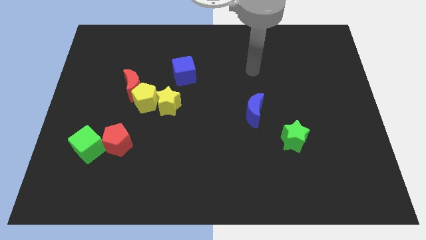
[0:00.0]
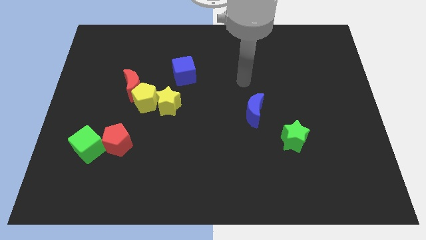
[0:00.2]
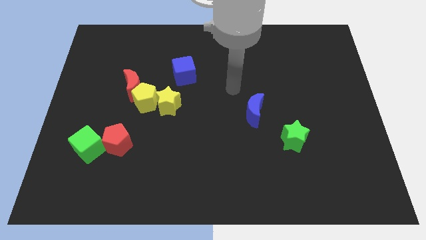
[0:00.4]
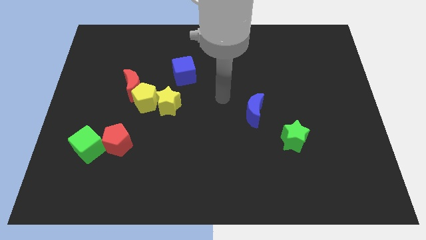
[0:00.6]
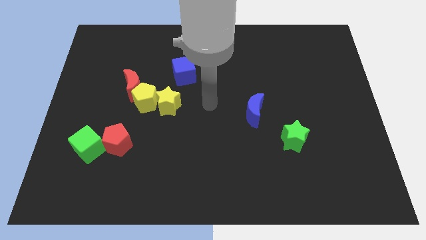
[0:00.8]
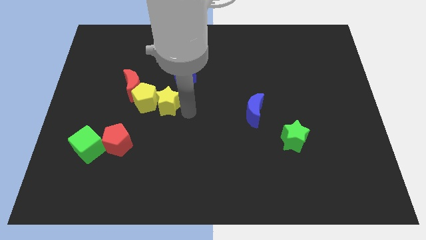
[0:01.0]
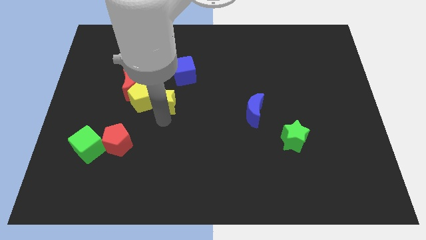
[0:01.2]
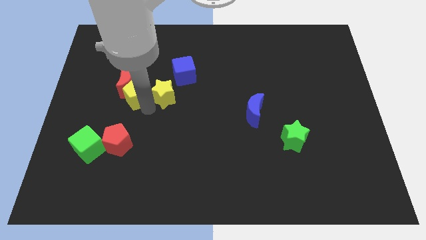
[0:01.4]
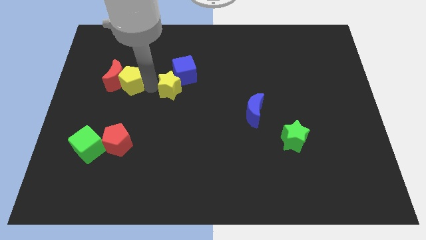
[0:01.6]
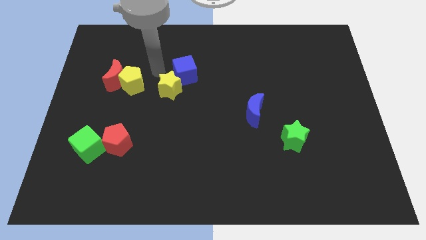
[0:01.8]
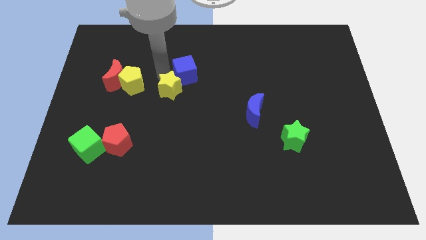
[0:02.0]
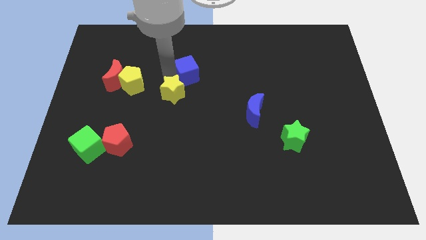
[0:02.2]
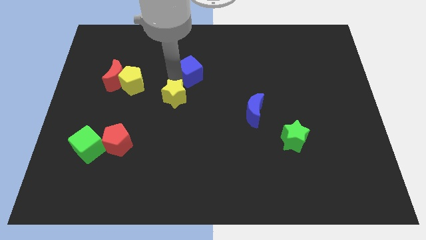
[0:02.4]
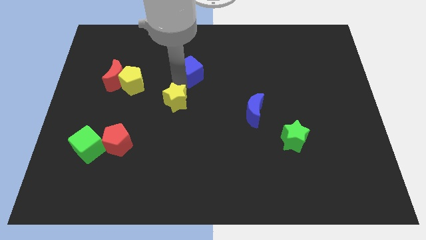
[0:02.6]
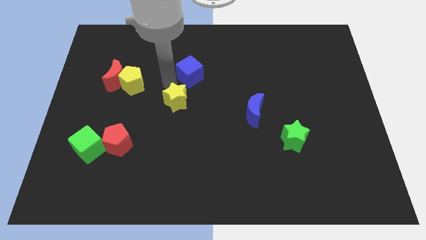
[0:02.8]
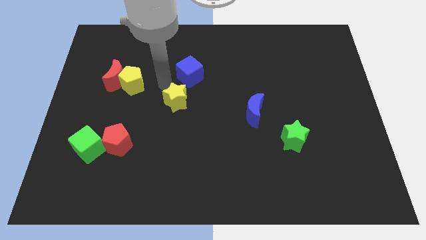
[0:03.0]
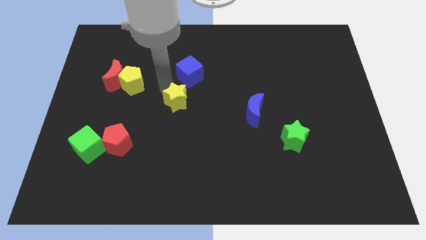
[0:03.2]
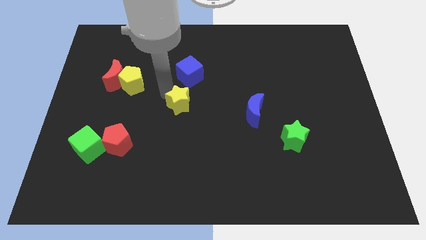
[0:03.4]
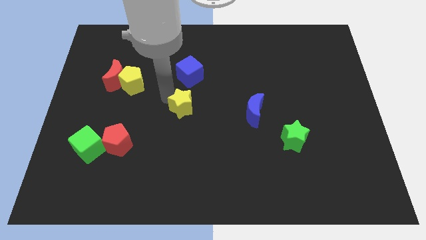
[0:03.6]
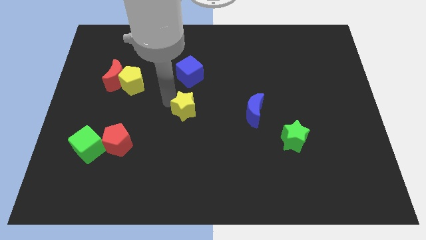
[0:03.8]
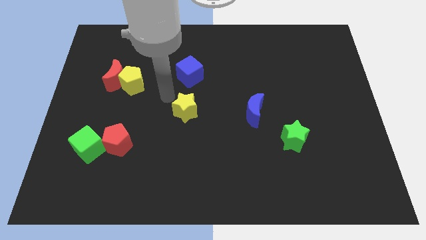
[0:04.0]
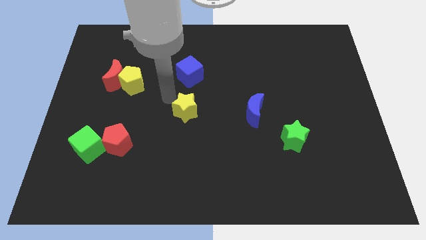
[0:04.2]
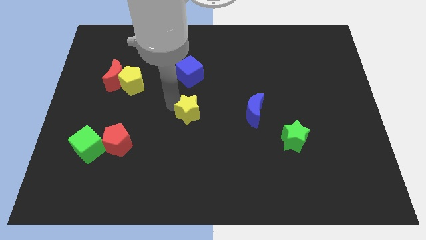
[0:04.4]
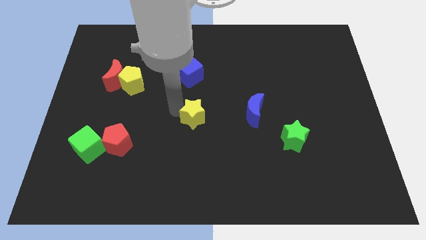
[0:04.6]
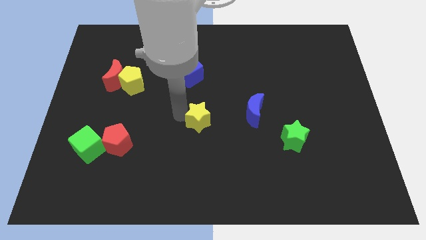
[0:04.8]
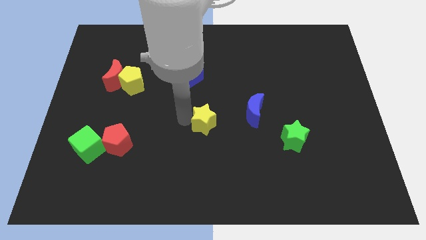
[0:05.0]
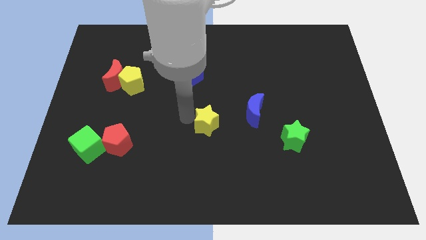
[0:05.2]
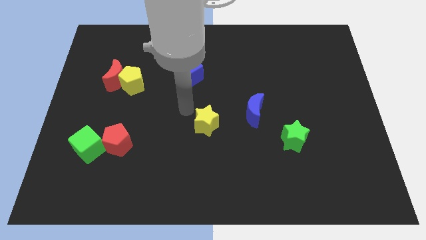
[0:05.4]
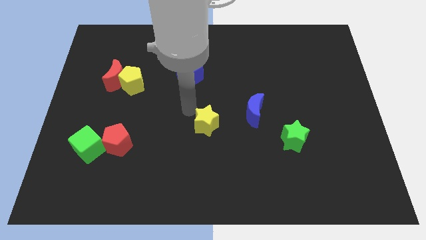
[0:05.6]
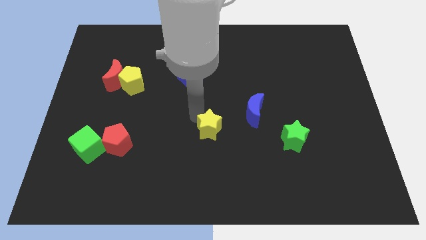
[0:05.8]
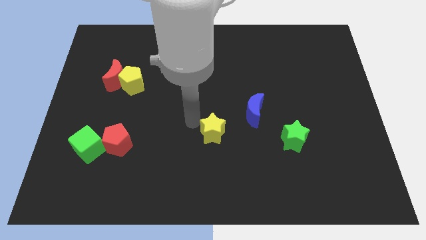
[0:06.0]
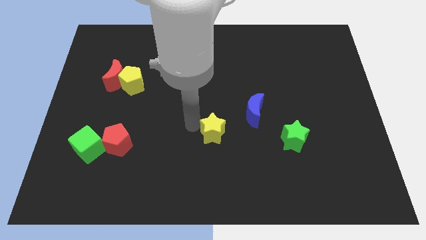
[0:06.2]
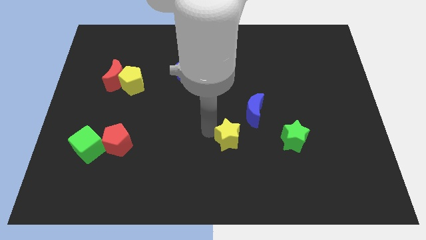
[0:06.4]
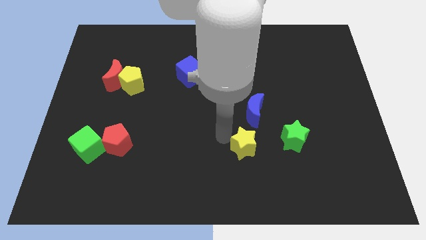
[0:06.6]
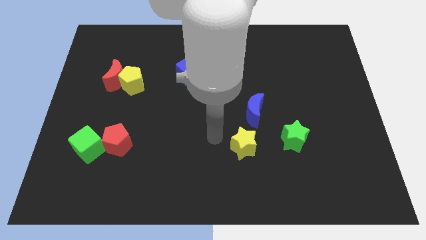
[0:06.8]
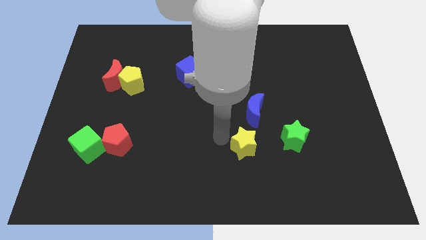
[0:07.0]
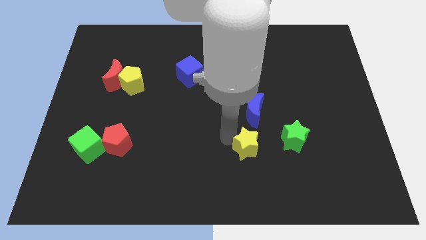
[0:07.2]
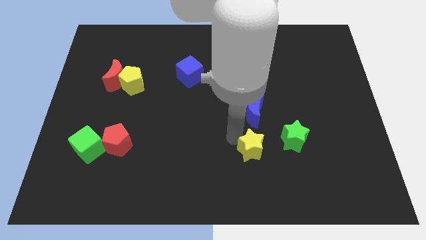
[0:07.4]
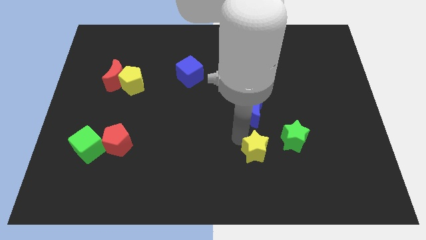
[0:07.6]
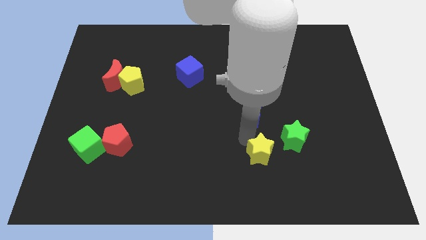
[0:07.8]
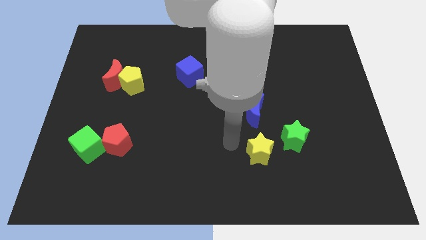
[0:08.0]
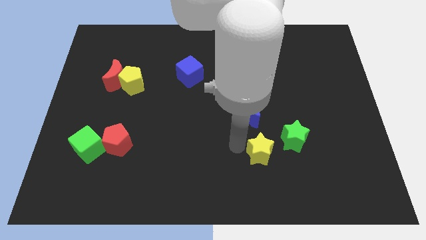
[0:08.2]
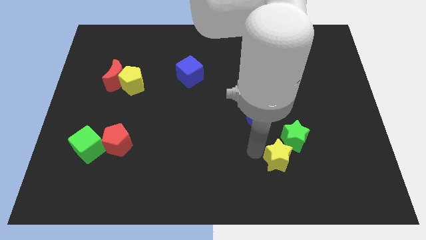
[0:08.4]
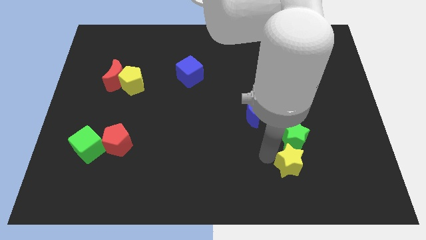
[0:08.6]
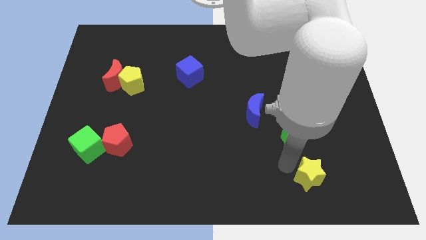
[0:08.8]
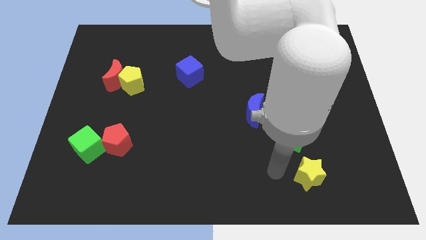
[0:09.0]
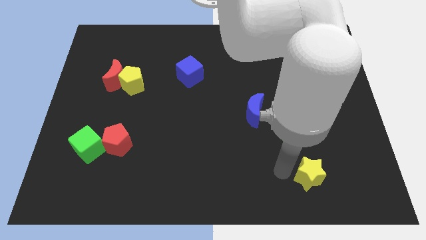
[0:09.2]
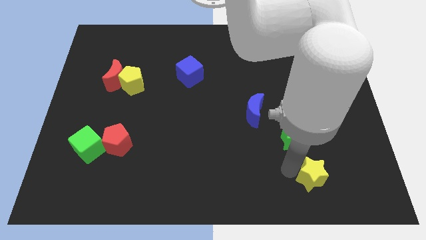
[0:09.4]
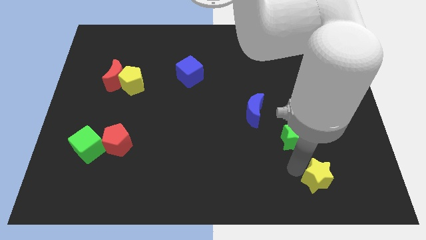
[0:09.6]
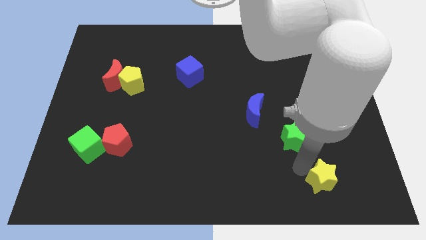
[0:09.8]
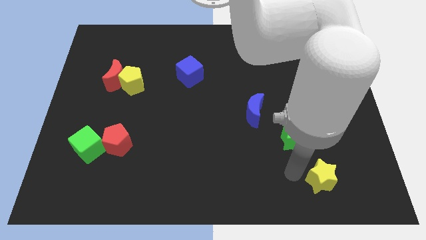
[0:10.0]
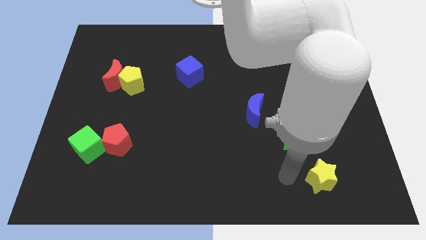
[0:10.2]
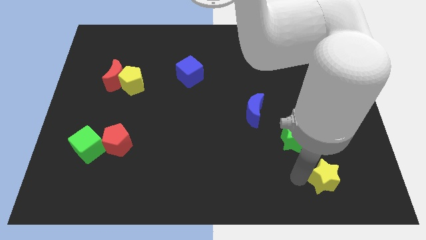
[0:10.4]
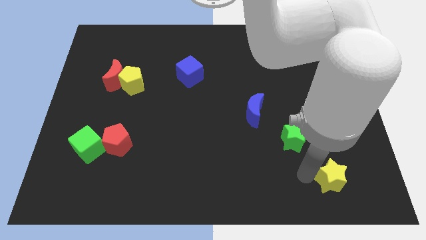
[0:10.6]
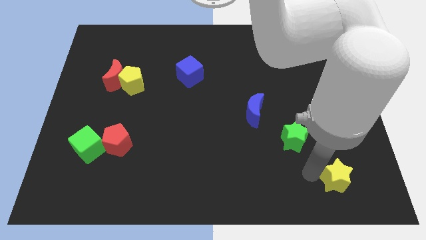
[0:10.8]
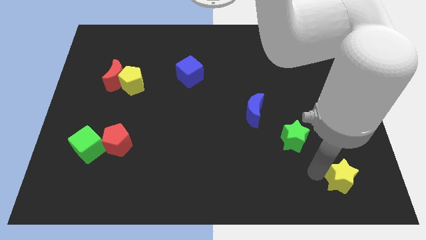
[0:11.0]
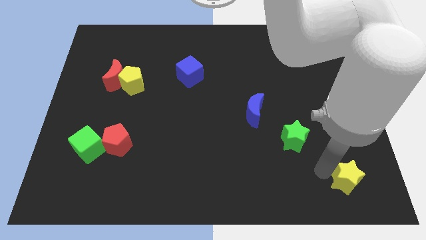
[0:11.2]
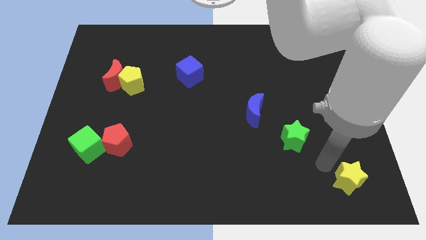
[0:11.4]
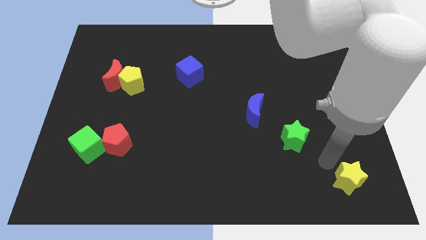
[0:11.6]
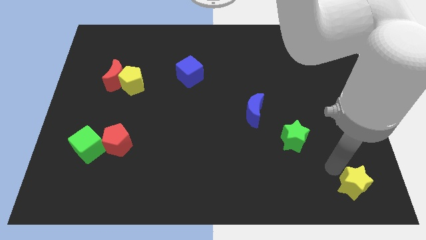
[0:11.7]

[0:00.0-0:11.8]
push the yellow star to the bottom right corner

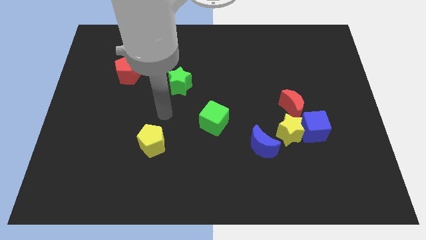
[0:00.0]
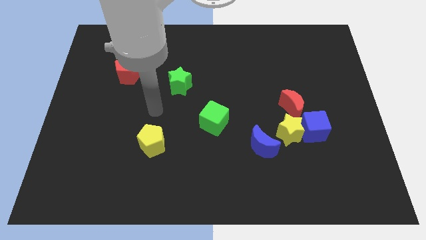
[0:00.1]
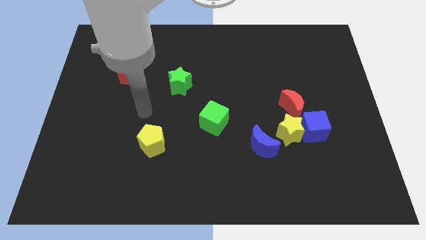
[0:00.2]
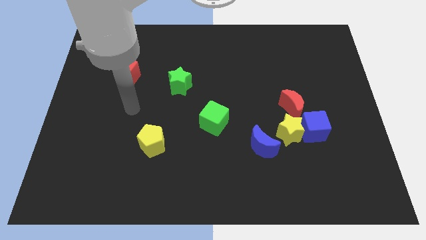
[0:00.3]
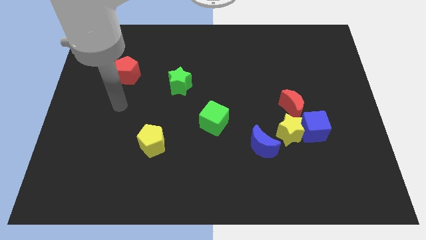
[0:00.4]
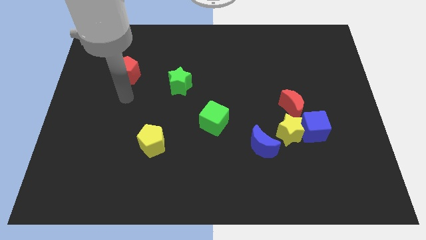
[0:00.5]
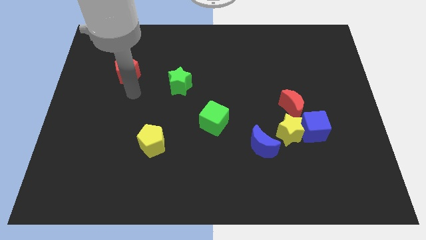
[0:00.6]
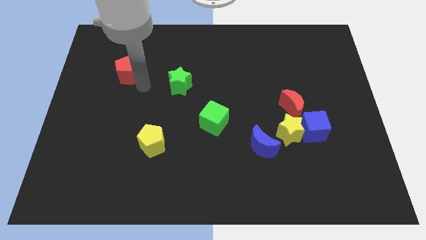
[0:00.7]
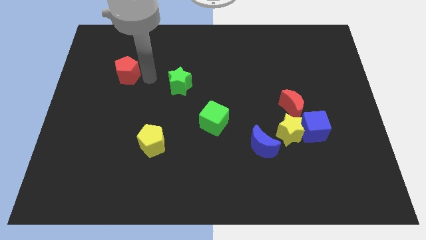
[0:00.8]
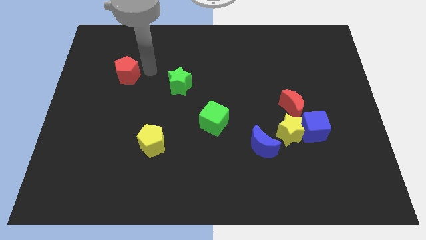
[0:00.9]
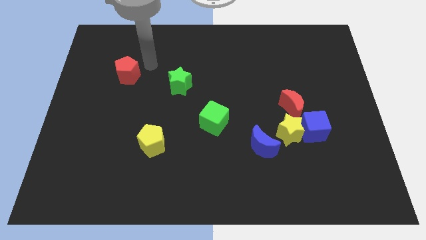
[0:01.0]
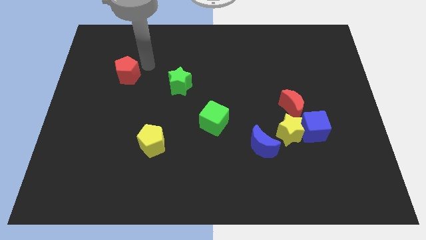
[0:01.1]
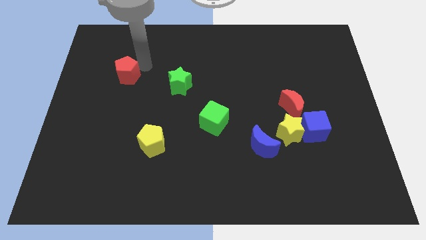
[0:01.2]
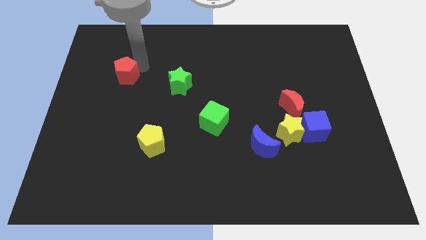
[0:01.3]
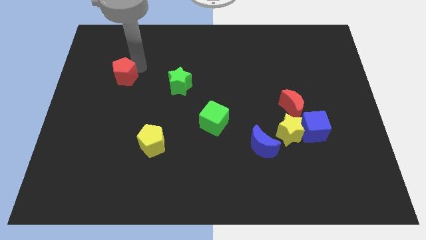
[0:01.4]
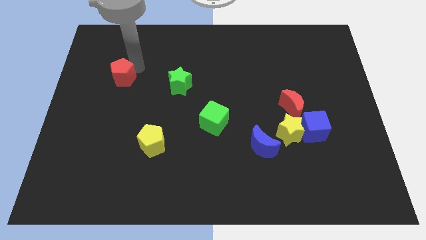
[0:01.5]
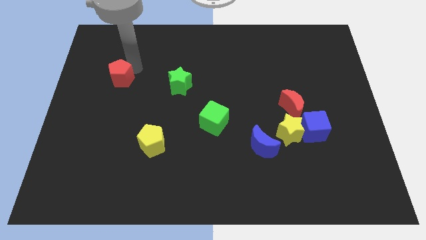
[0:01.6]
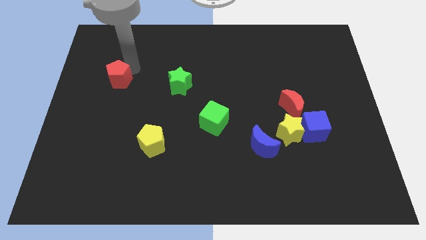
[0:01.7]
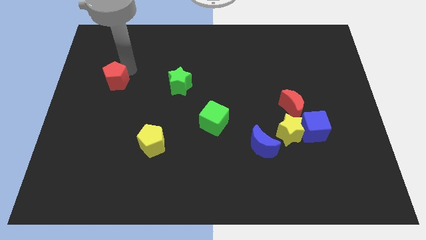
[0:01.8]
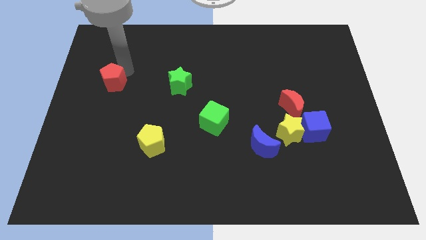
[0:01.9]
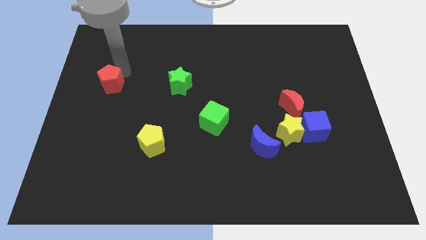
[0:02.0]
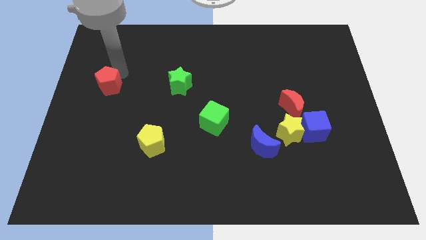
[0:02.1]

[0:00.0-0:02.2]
move the red pentagon to the left side of the board
